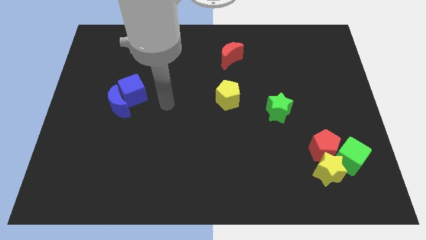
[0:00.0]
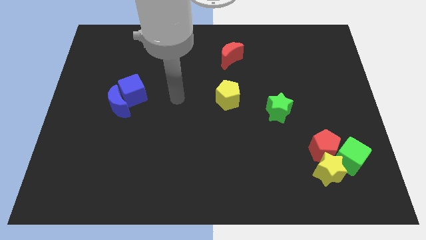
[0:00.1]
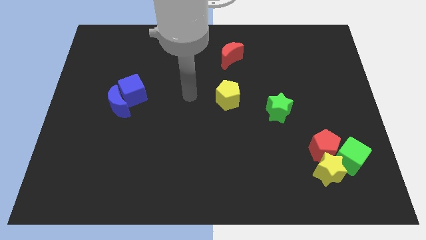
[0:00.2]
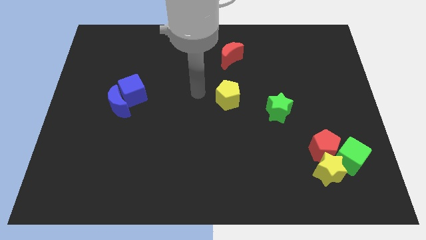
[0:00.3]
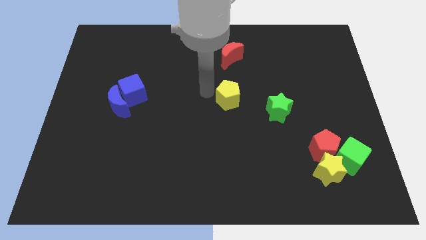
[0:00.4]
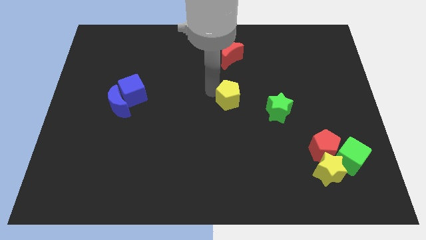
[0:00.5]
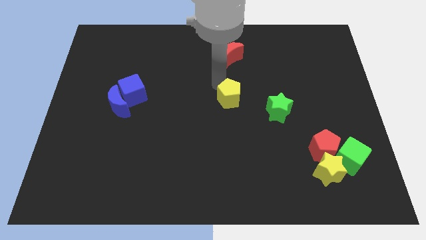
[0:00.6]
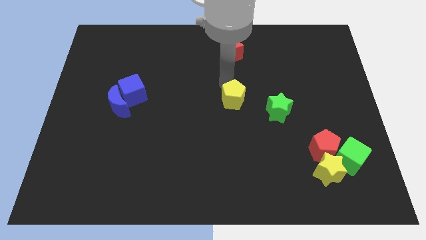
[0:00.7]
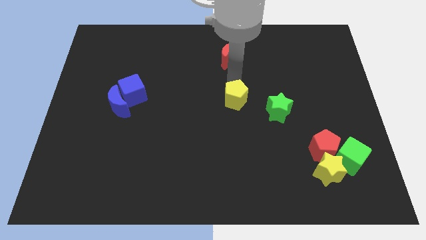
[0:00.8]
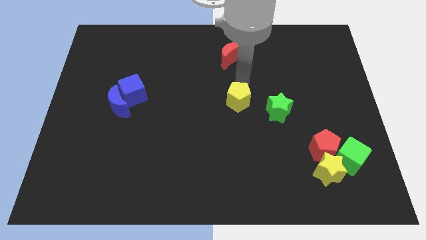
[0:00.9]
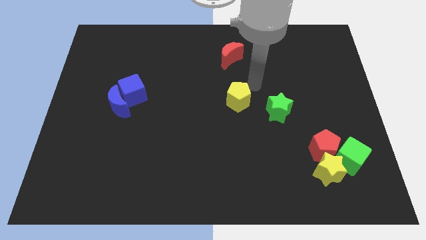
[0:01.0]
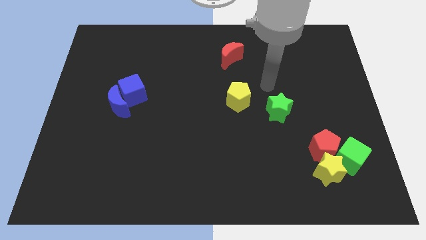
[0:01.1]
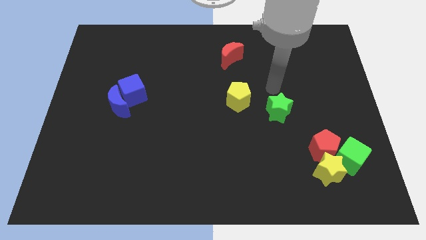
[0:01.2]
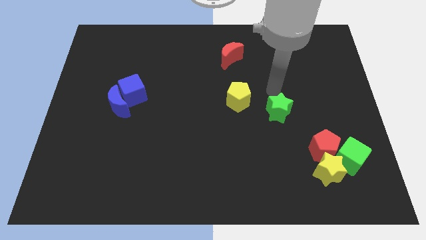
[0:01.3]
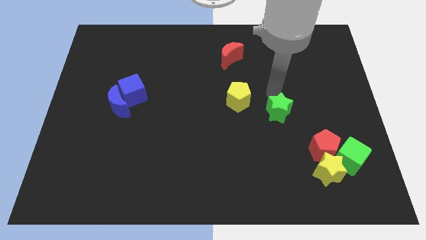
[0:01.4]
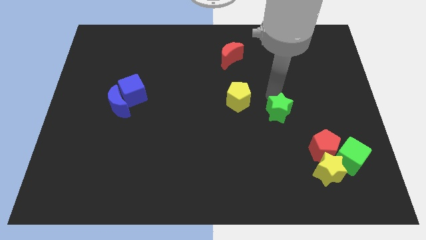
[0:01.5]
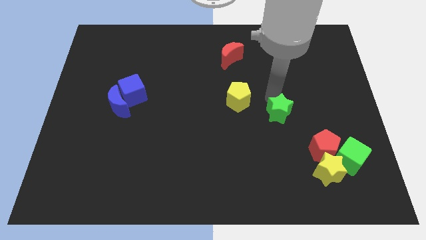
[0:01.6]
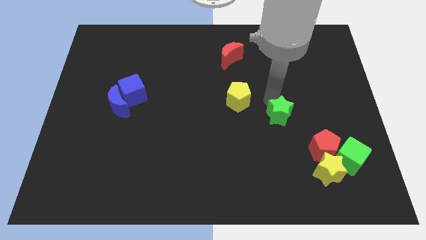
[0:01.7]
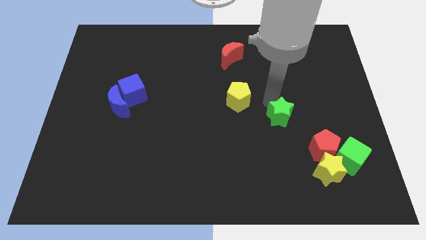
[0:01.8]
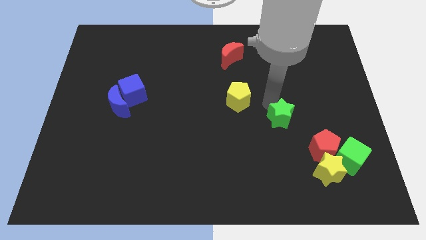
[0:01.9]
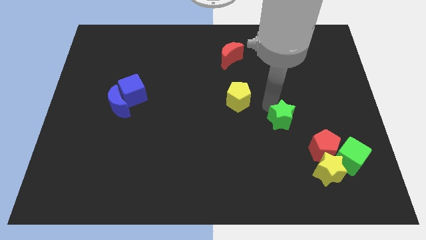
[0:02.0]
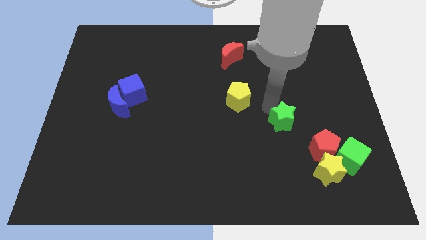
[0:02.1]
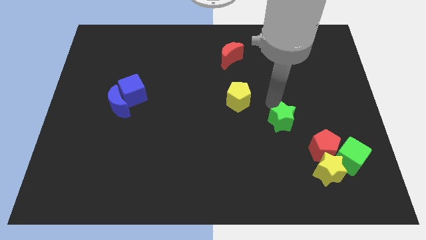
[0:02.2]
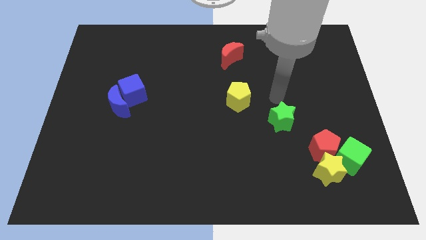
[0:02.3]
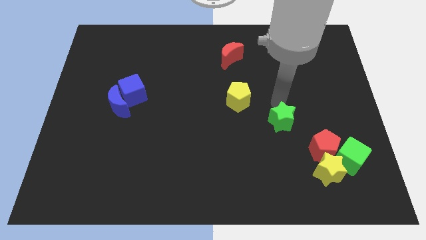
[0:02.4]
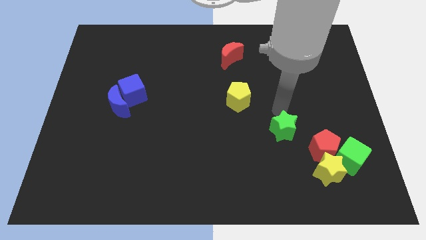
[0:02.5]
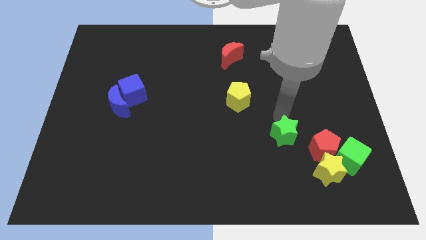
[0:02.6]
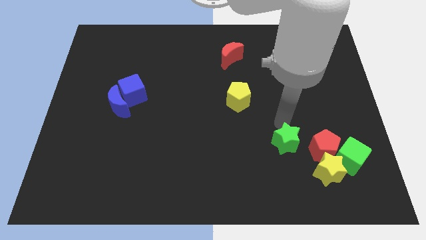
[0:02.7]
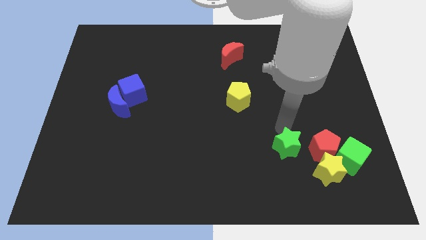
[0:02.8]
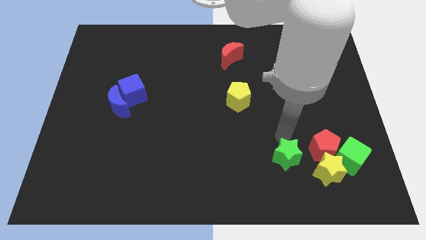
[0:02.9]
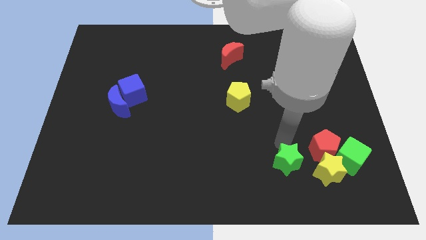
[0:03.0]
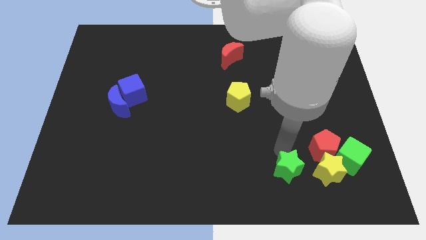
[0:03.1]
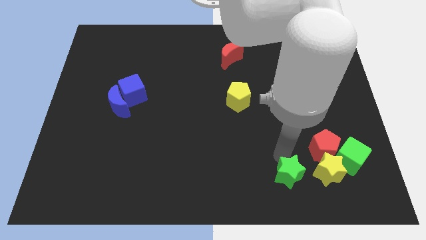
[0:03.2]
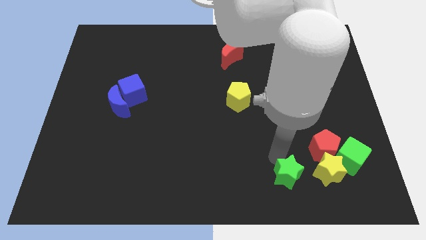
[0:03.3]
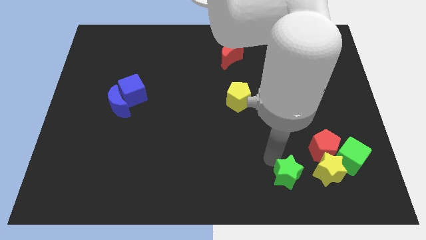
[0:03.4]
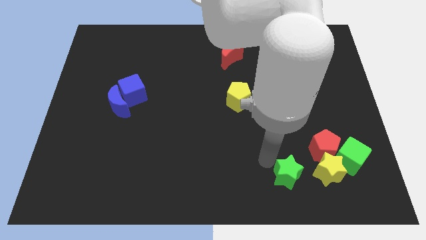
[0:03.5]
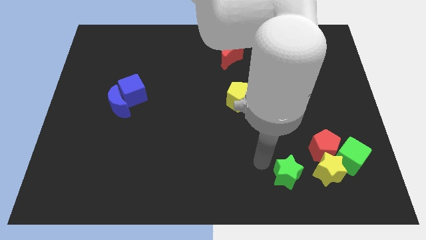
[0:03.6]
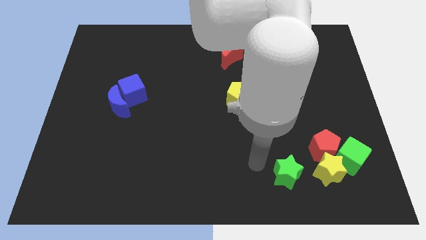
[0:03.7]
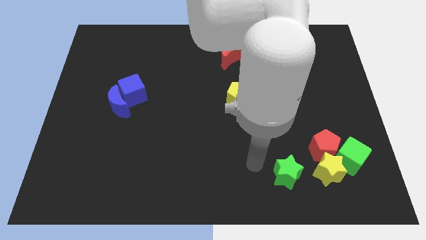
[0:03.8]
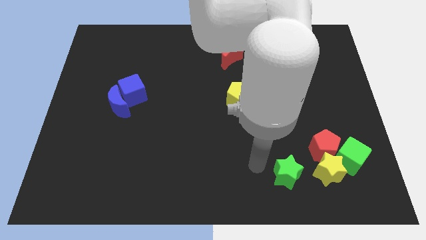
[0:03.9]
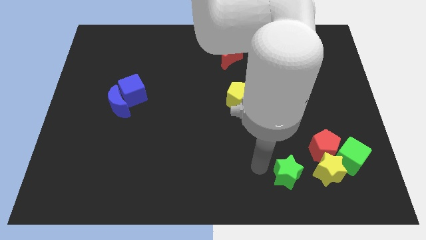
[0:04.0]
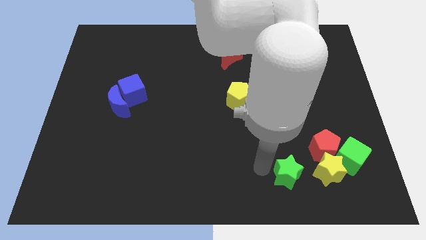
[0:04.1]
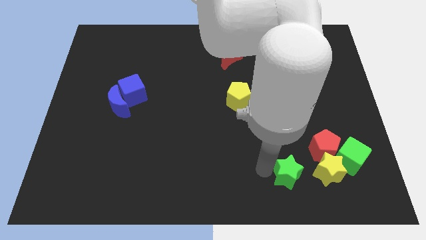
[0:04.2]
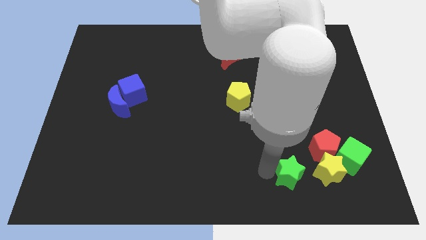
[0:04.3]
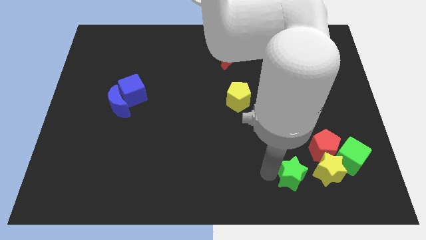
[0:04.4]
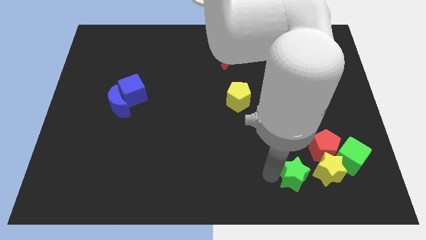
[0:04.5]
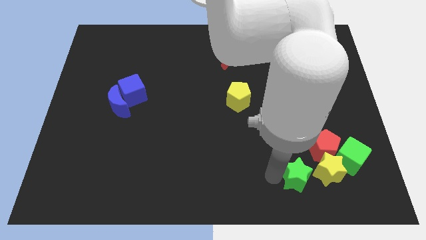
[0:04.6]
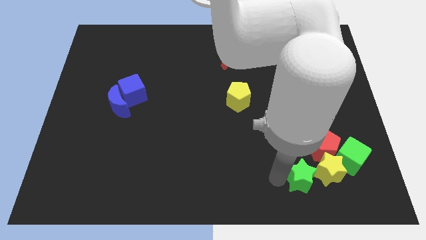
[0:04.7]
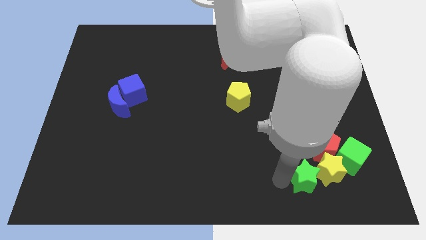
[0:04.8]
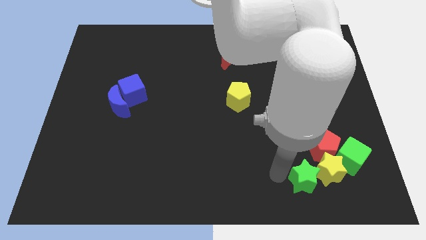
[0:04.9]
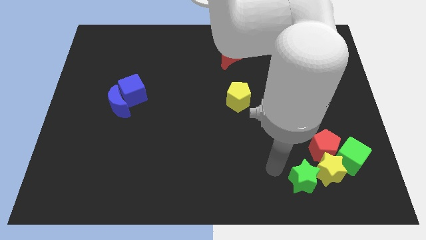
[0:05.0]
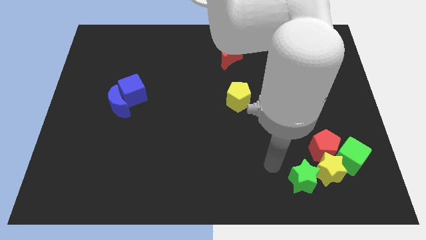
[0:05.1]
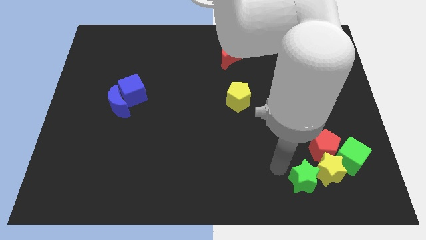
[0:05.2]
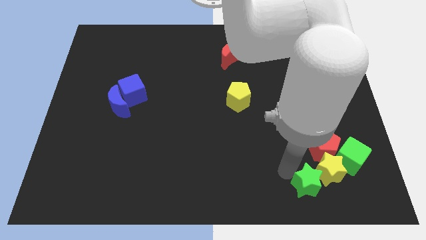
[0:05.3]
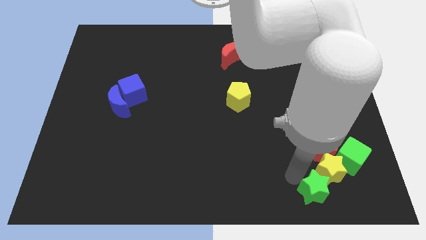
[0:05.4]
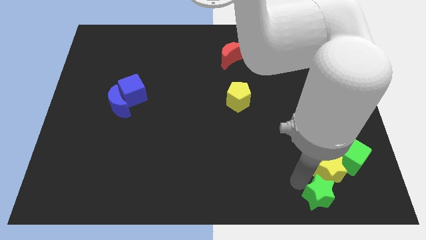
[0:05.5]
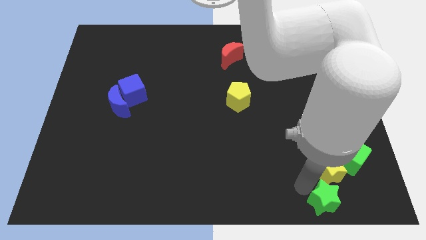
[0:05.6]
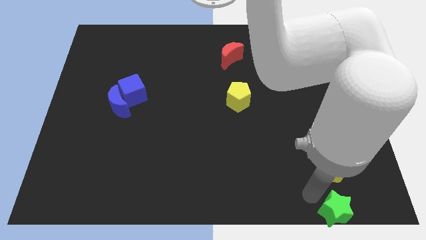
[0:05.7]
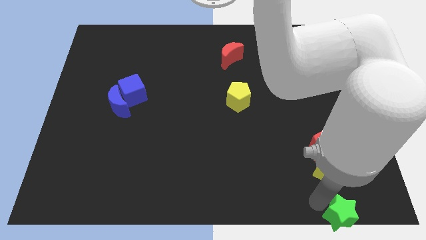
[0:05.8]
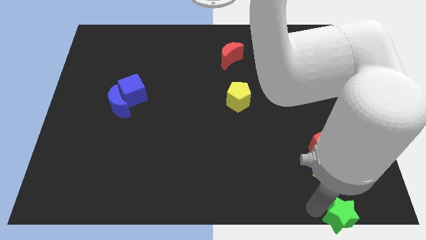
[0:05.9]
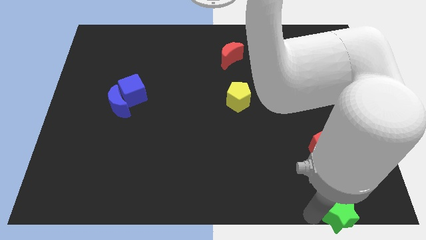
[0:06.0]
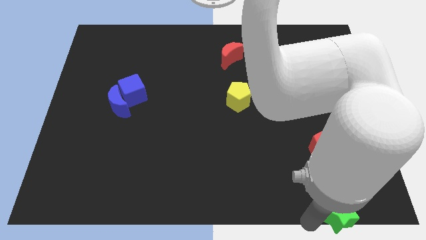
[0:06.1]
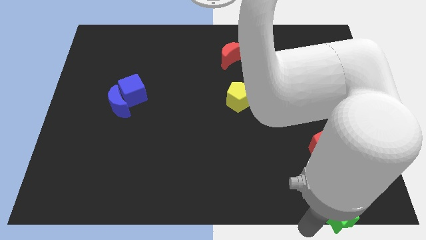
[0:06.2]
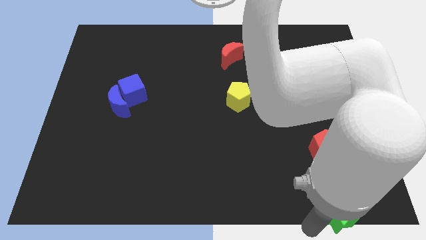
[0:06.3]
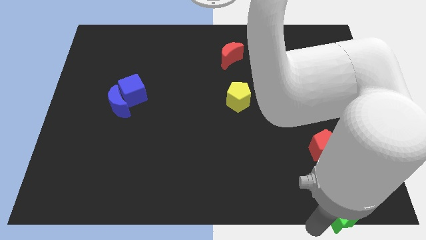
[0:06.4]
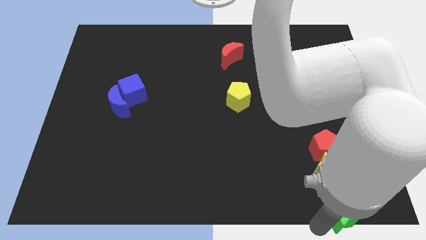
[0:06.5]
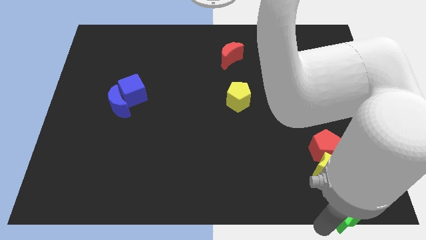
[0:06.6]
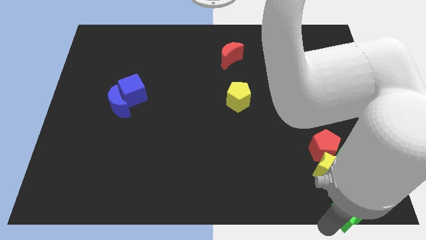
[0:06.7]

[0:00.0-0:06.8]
push the green star to the bottom right
